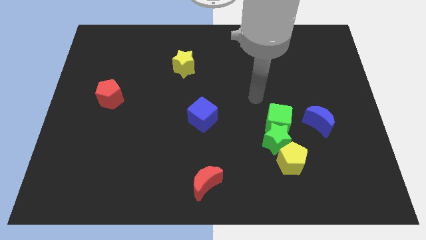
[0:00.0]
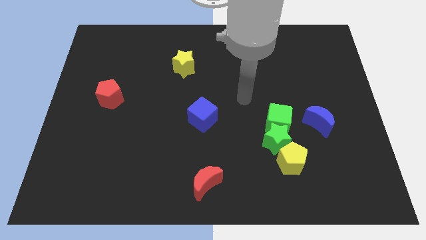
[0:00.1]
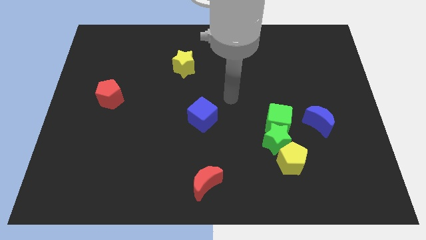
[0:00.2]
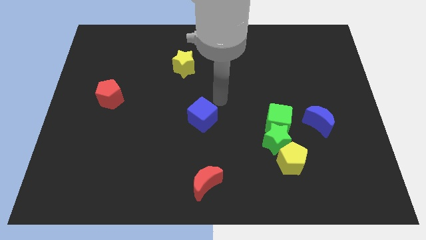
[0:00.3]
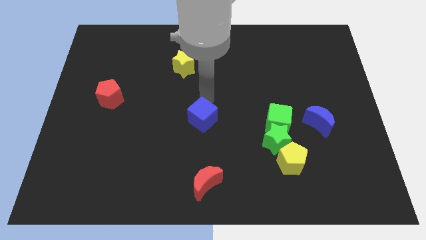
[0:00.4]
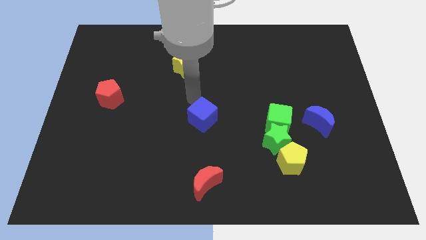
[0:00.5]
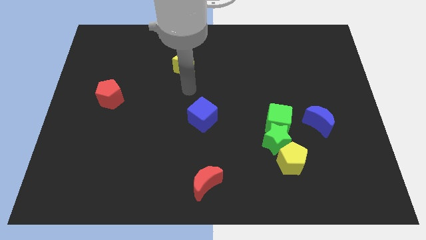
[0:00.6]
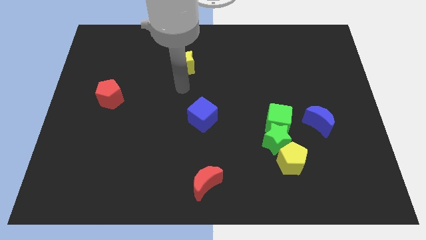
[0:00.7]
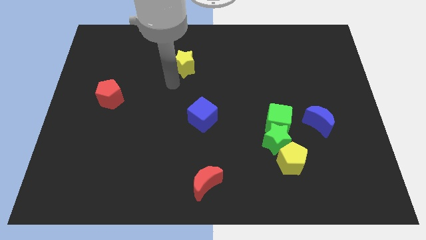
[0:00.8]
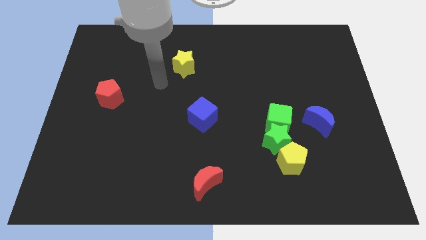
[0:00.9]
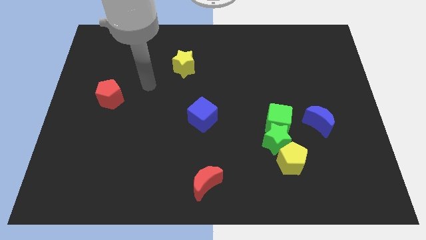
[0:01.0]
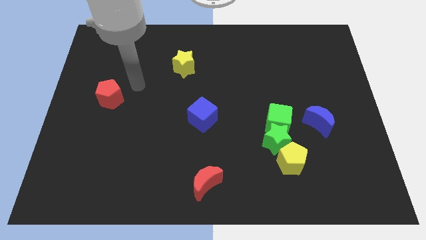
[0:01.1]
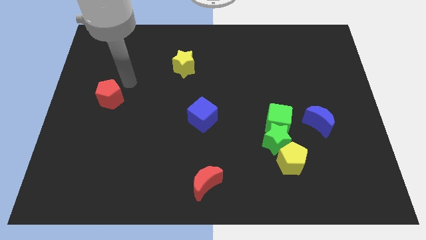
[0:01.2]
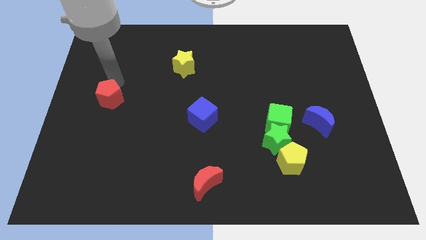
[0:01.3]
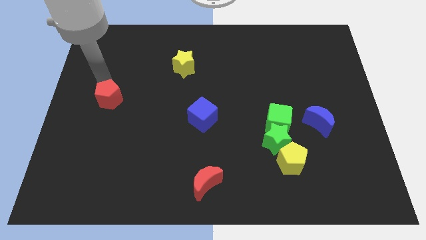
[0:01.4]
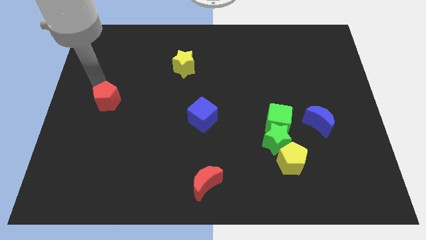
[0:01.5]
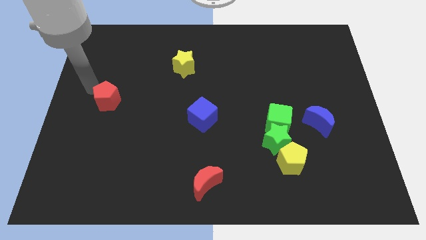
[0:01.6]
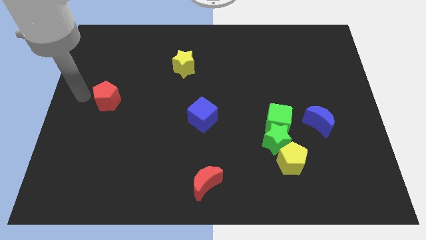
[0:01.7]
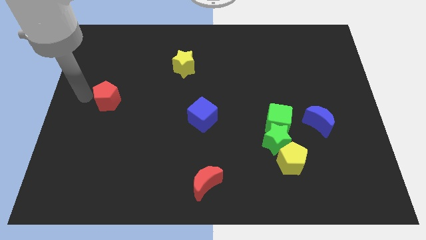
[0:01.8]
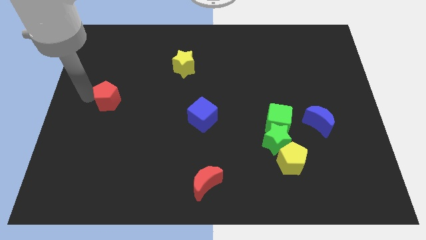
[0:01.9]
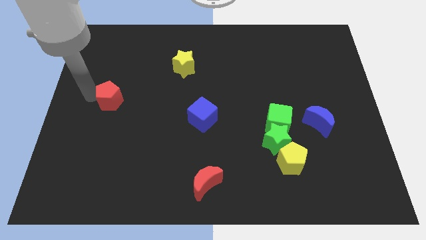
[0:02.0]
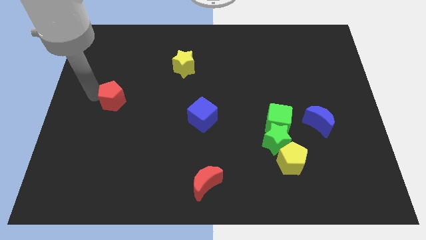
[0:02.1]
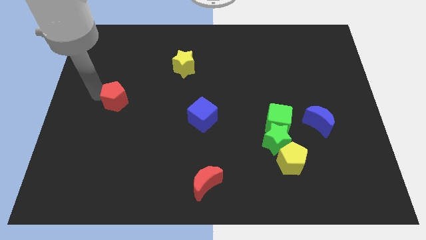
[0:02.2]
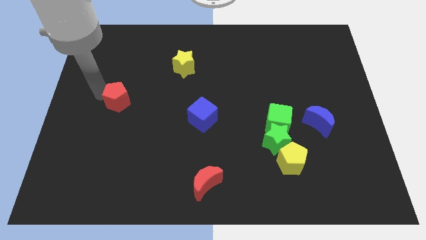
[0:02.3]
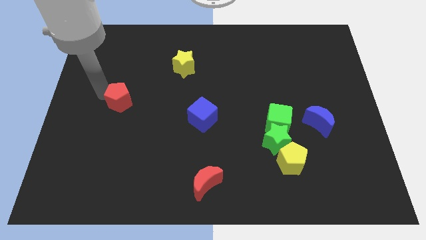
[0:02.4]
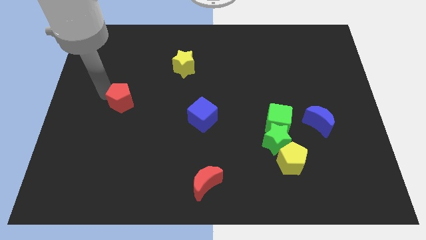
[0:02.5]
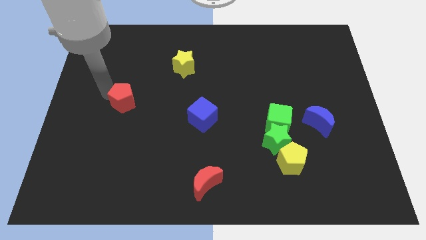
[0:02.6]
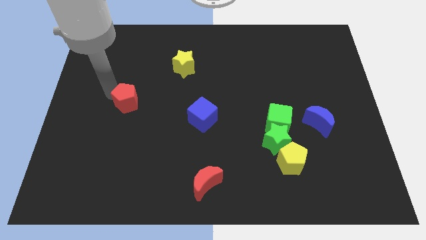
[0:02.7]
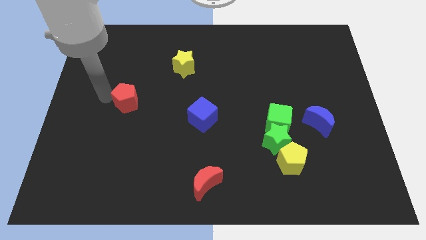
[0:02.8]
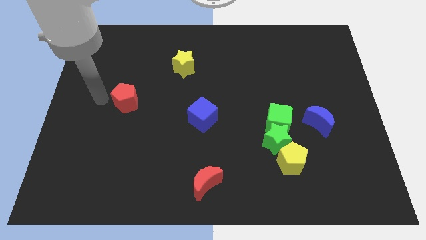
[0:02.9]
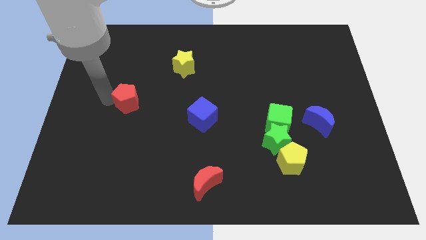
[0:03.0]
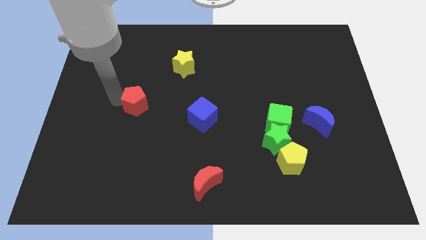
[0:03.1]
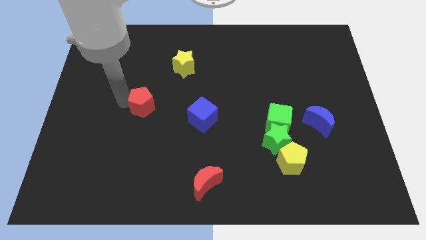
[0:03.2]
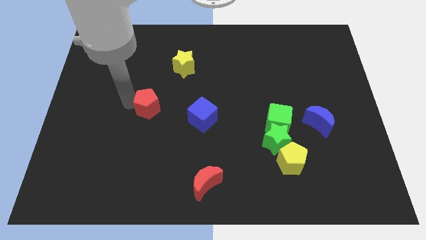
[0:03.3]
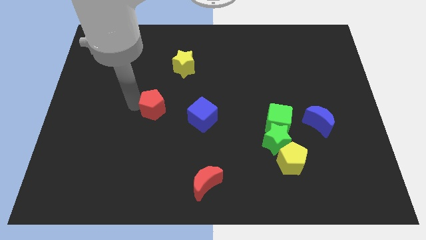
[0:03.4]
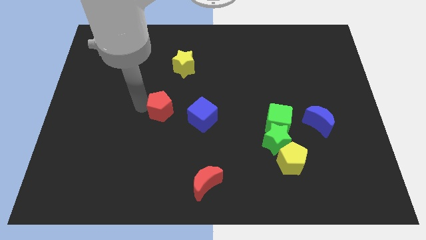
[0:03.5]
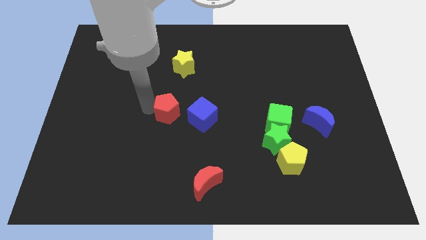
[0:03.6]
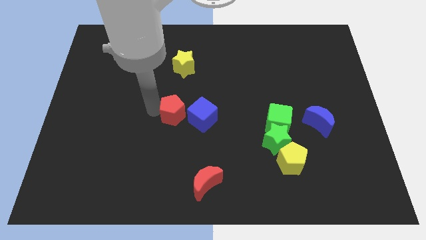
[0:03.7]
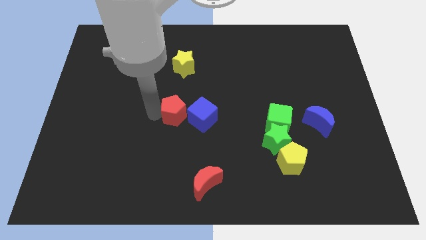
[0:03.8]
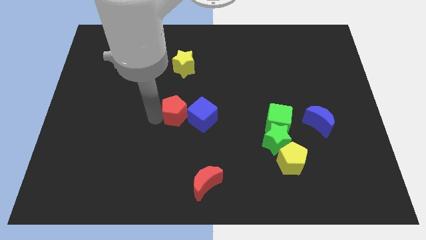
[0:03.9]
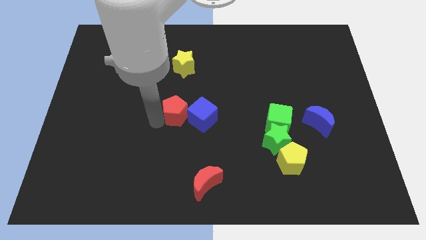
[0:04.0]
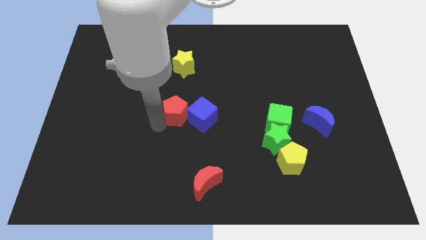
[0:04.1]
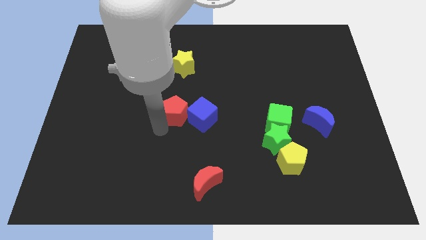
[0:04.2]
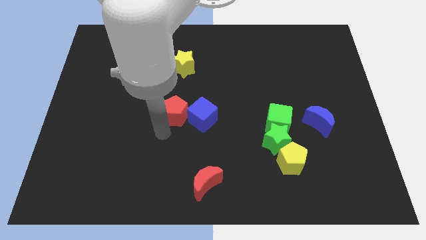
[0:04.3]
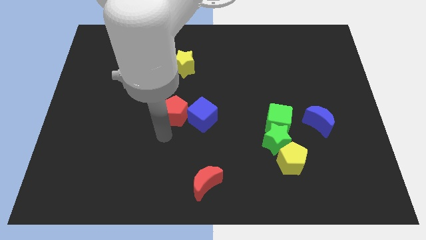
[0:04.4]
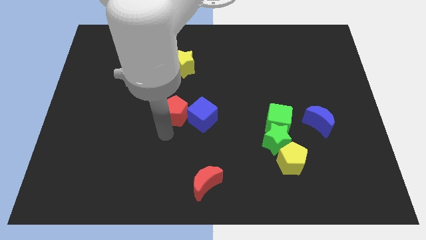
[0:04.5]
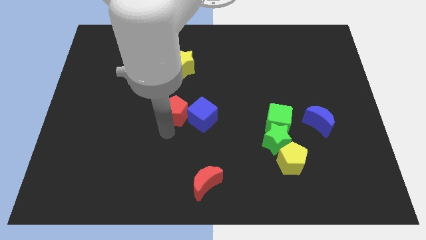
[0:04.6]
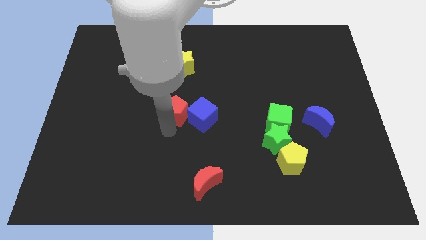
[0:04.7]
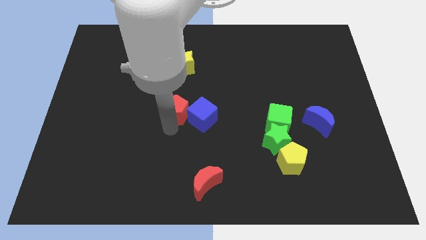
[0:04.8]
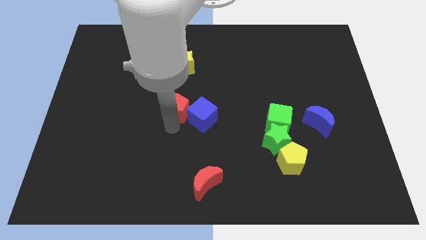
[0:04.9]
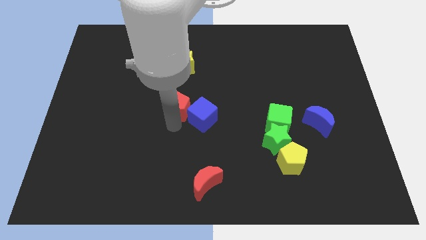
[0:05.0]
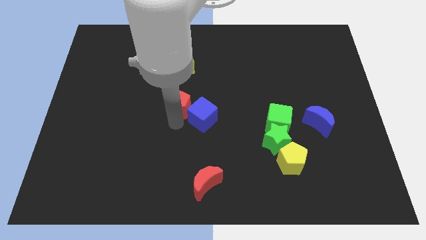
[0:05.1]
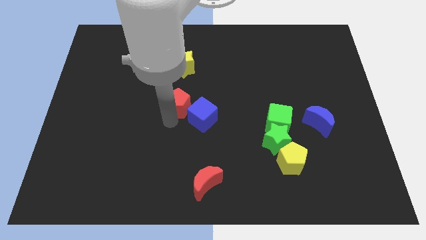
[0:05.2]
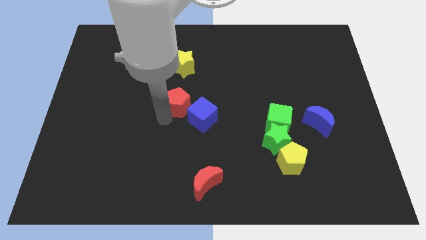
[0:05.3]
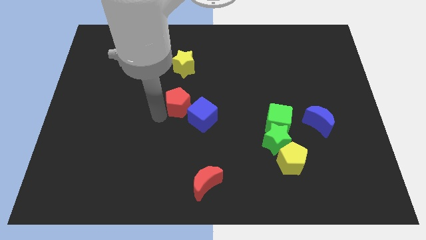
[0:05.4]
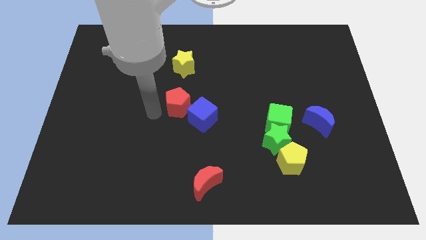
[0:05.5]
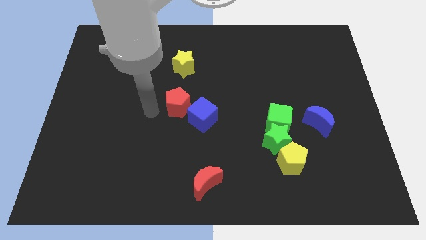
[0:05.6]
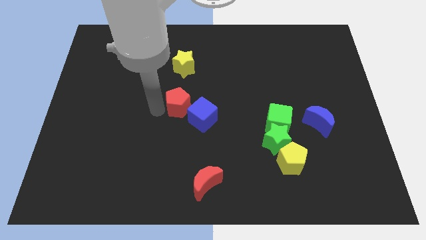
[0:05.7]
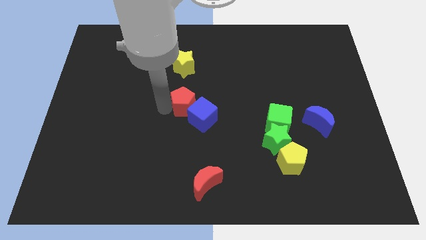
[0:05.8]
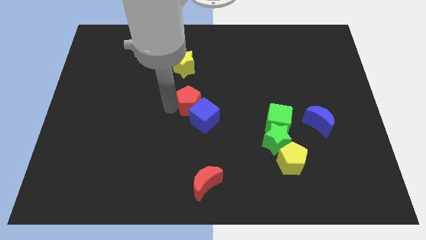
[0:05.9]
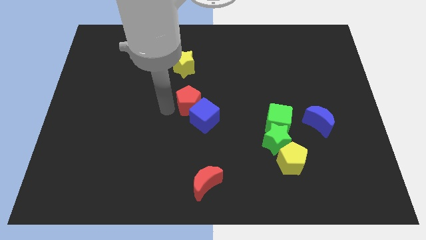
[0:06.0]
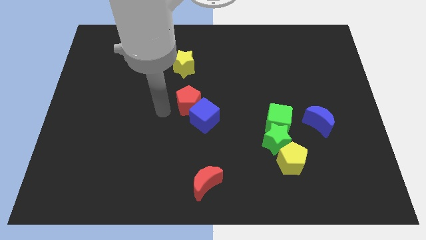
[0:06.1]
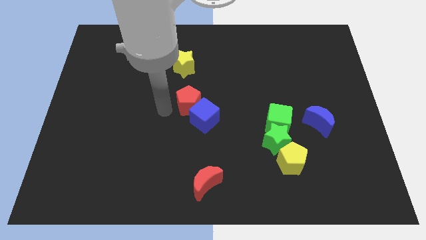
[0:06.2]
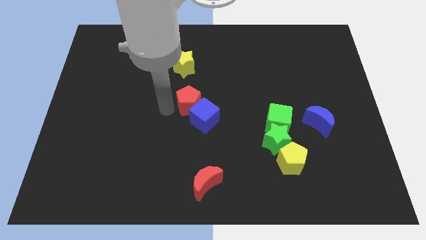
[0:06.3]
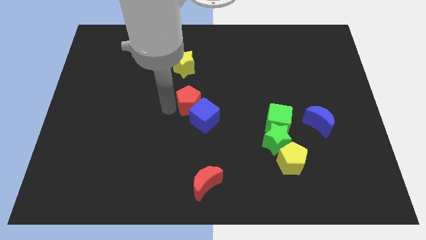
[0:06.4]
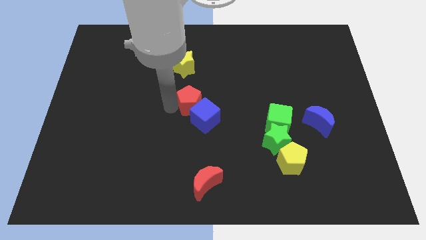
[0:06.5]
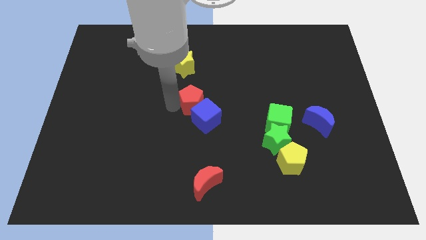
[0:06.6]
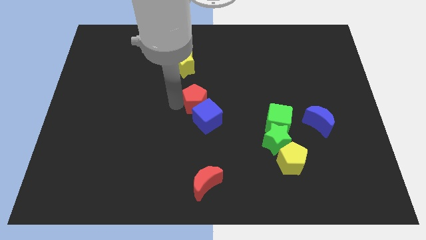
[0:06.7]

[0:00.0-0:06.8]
move the red pentagon right

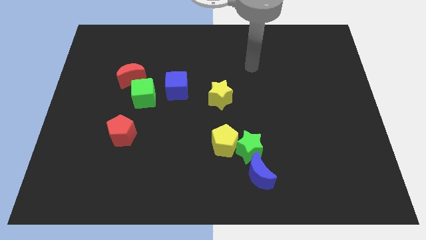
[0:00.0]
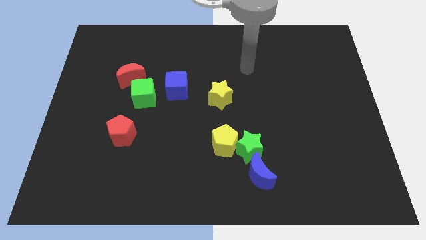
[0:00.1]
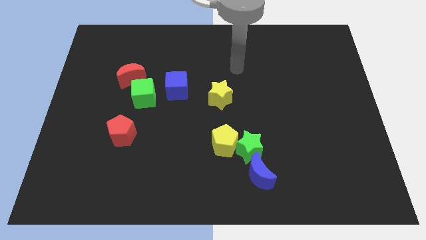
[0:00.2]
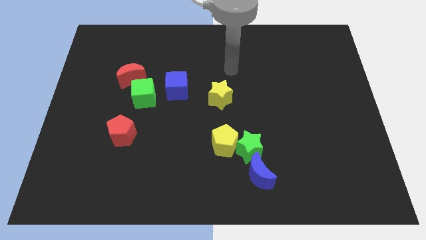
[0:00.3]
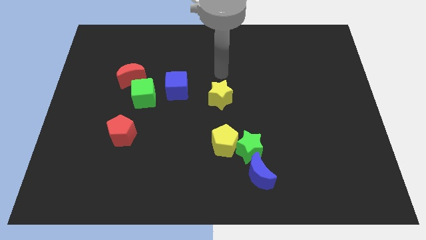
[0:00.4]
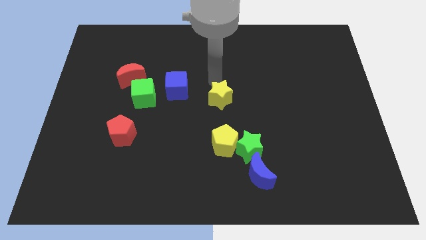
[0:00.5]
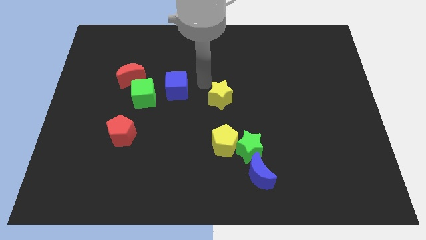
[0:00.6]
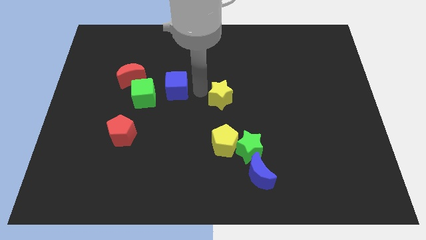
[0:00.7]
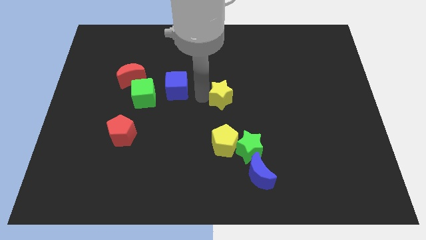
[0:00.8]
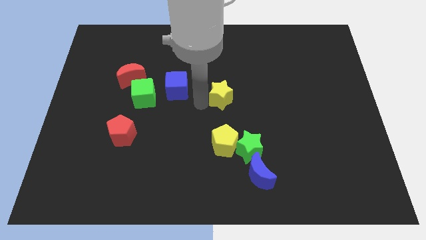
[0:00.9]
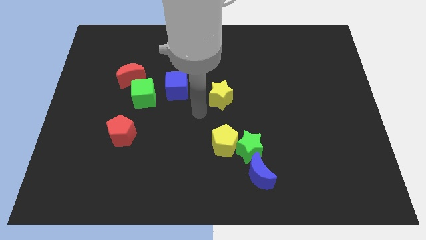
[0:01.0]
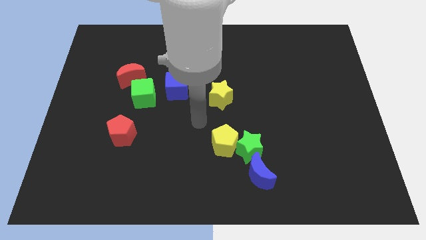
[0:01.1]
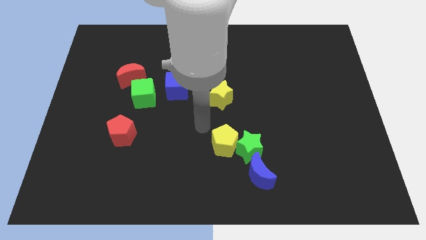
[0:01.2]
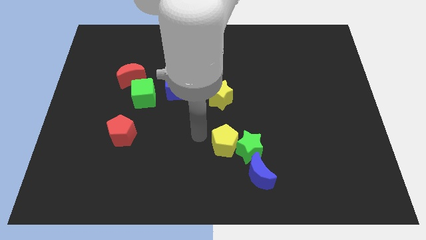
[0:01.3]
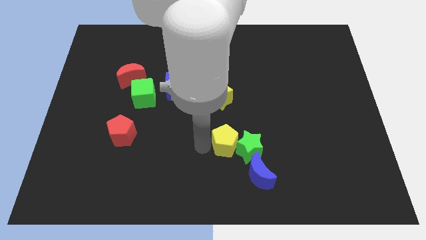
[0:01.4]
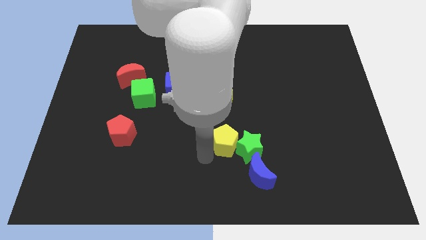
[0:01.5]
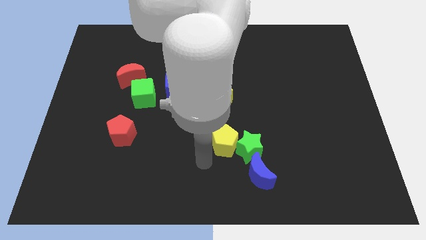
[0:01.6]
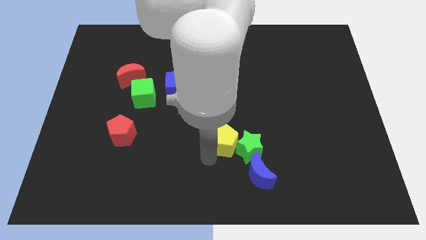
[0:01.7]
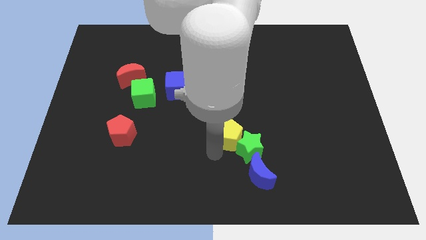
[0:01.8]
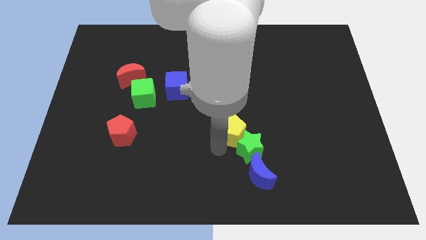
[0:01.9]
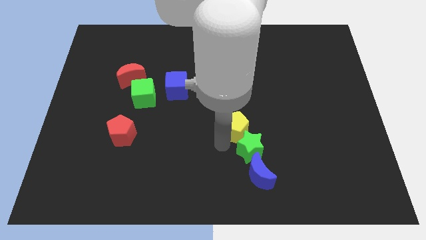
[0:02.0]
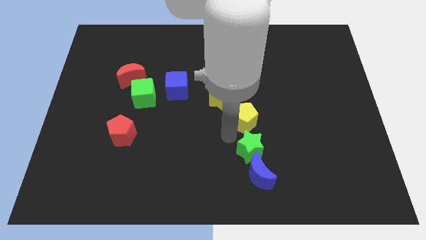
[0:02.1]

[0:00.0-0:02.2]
slide the yellow pentagon up and then right a bit
